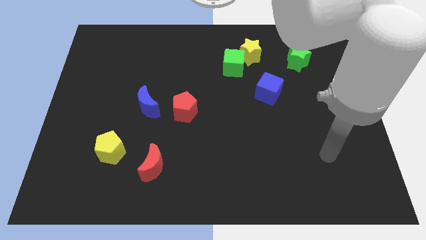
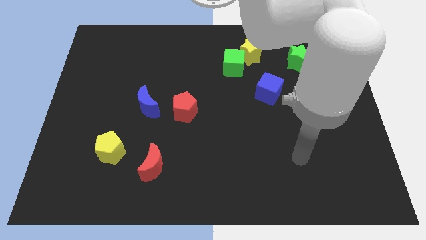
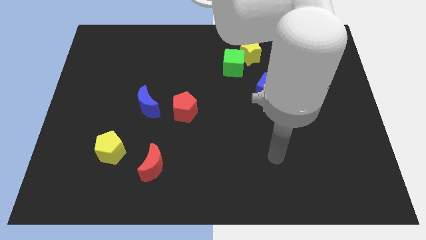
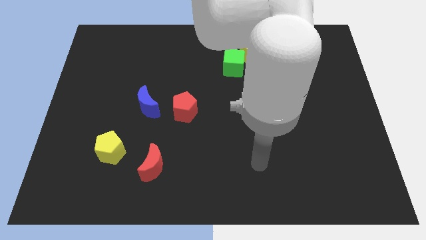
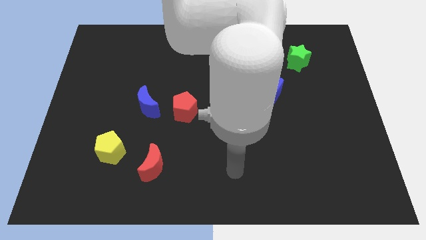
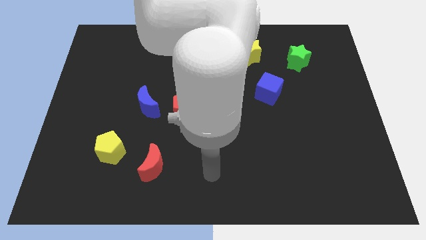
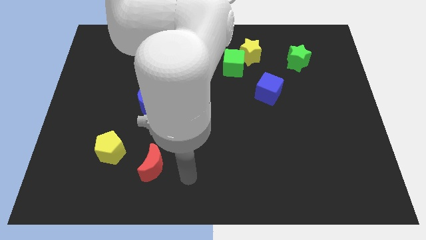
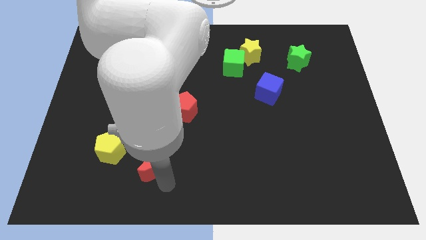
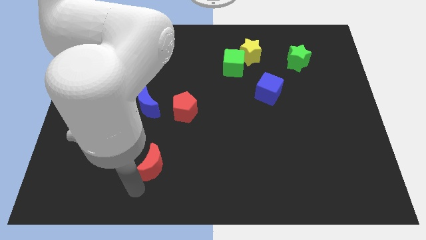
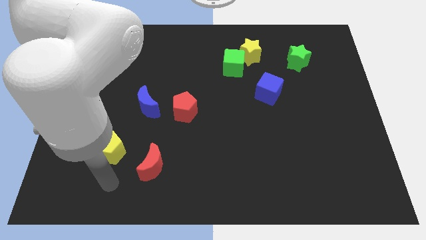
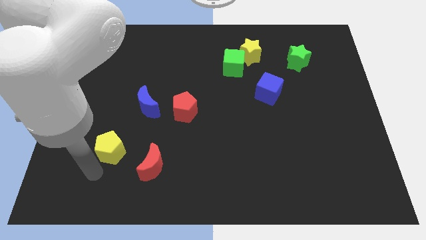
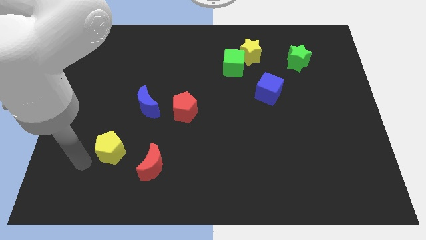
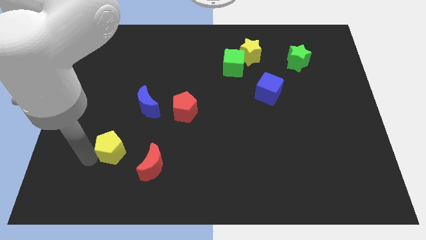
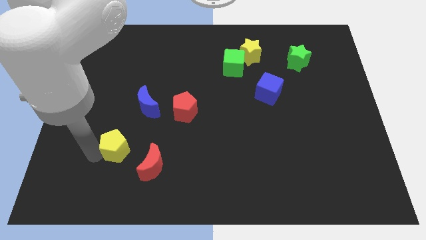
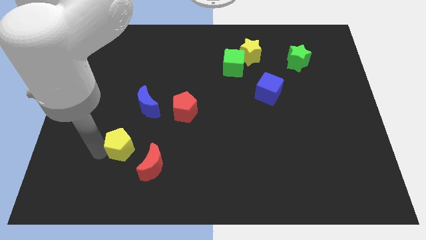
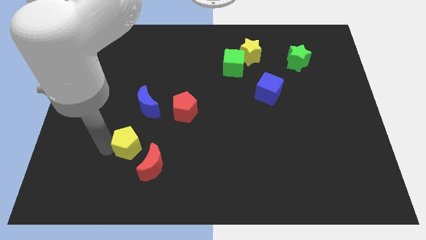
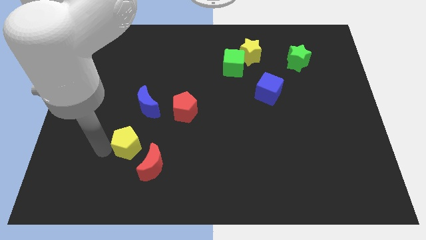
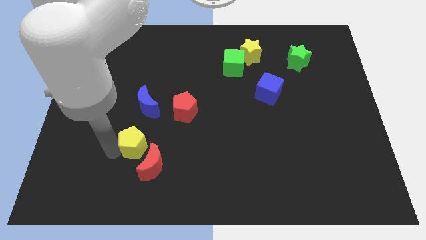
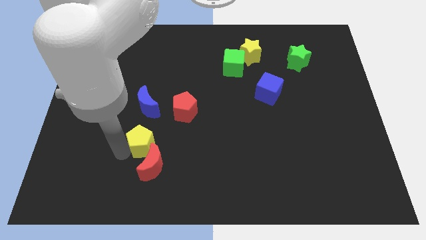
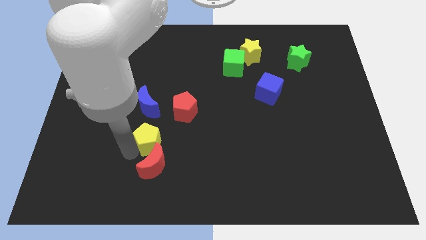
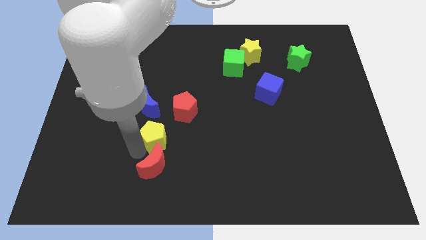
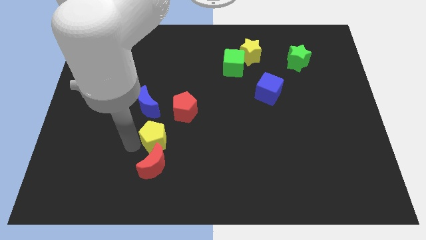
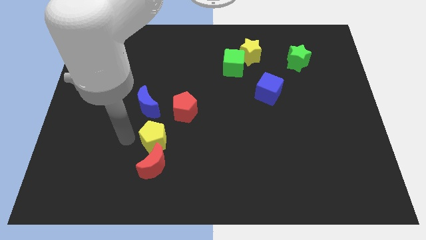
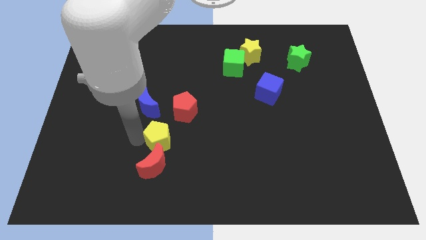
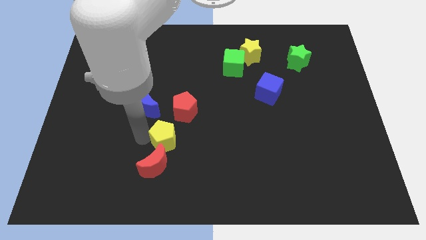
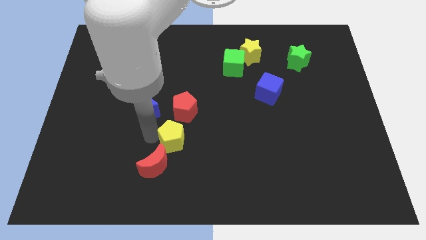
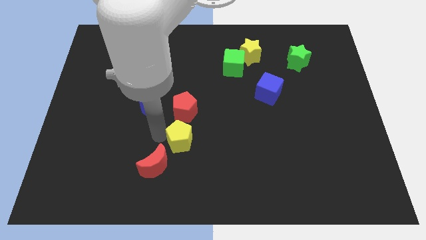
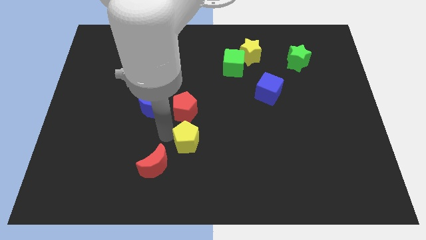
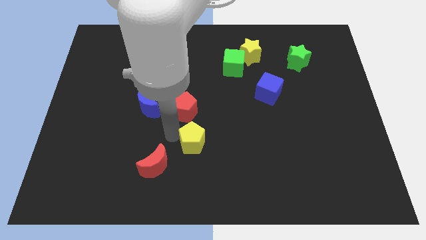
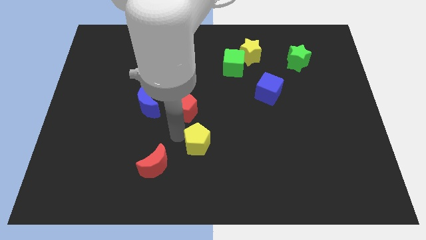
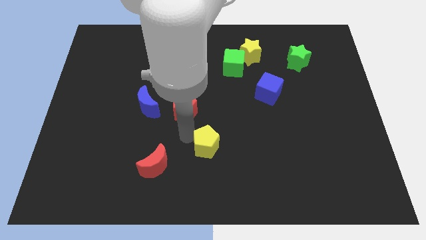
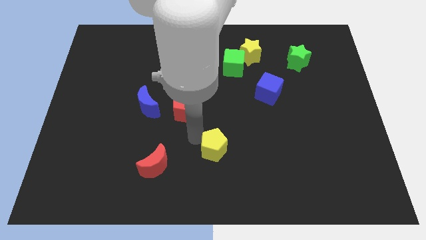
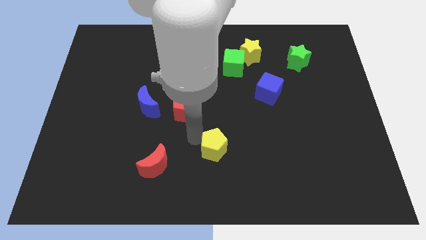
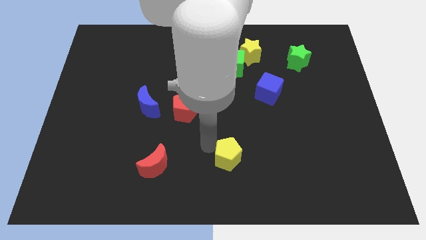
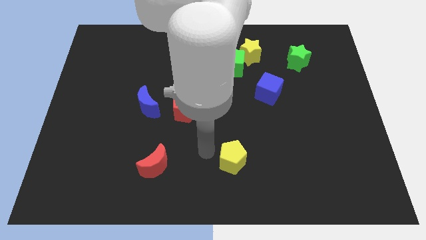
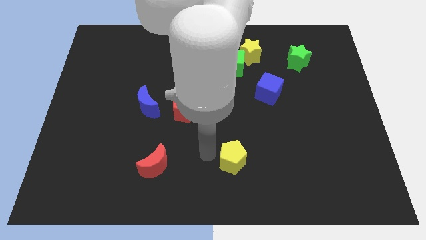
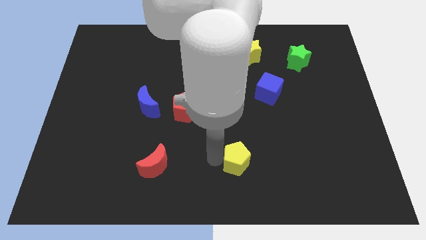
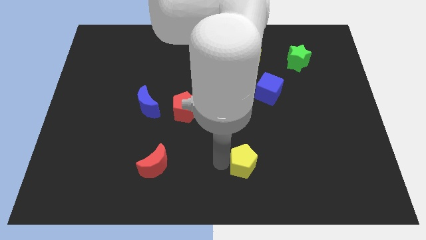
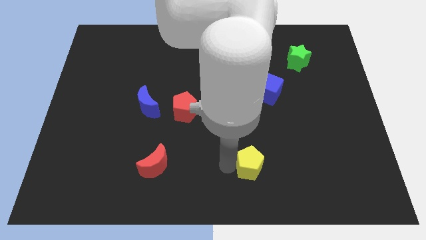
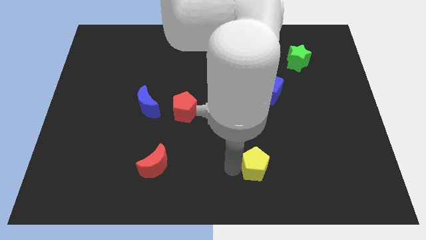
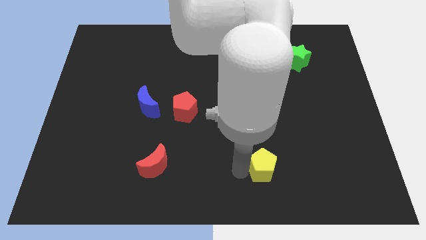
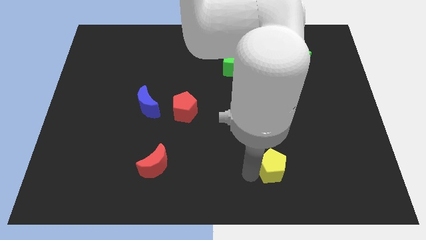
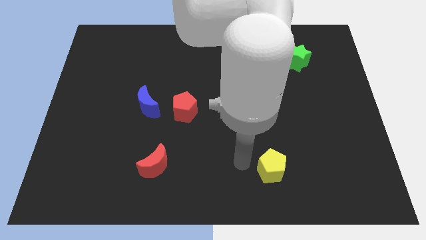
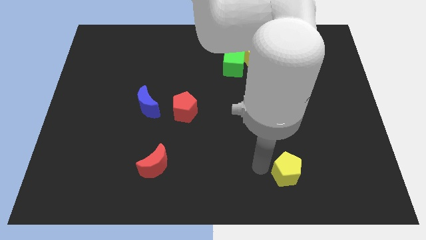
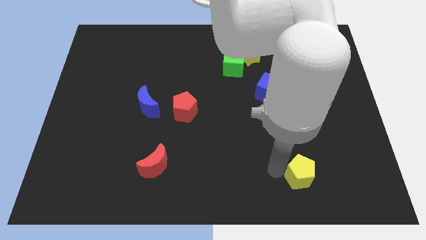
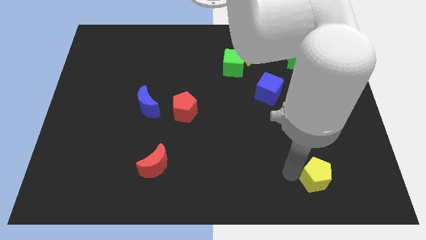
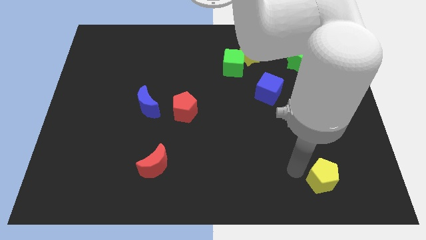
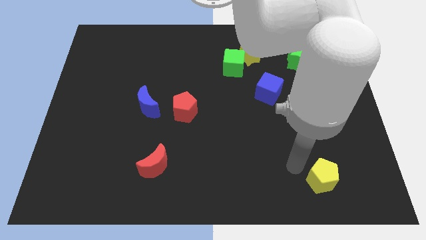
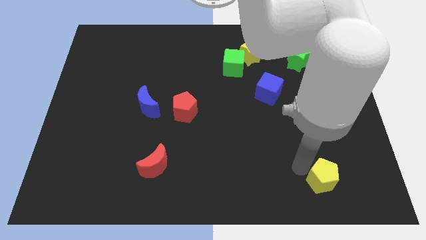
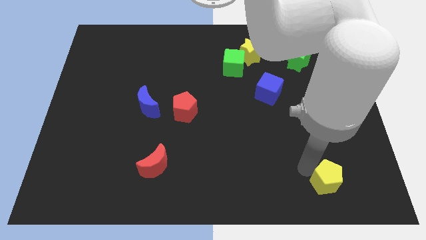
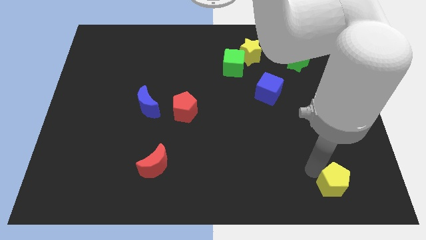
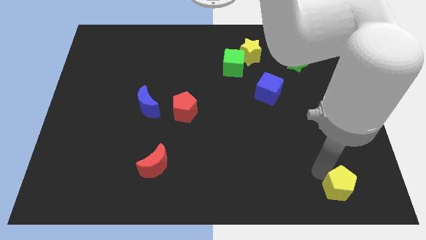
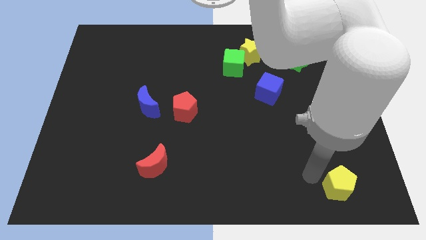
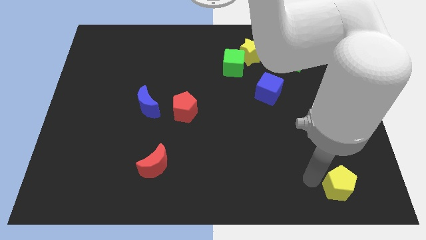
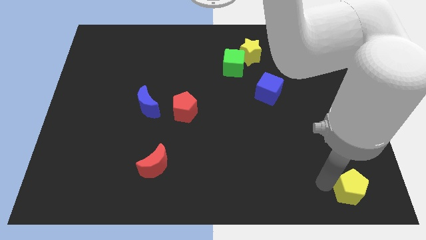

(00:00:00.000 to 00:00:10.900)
slide the yellow pentagon to the bottom right

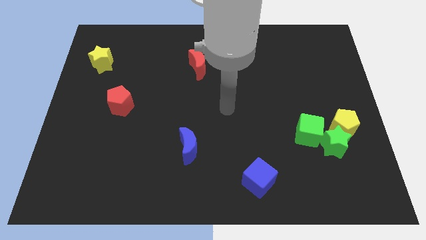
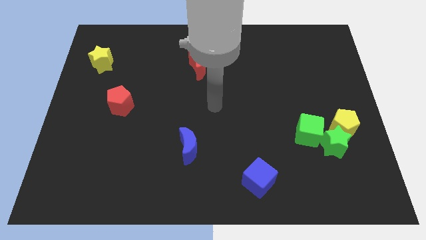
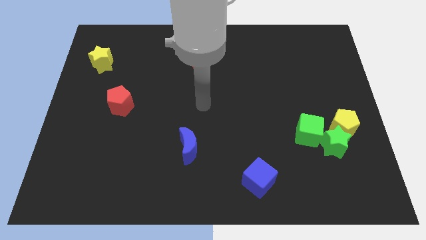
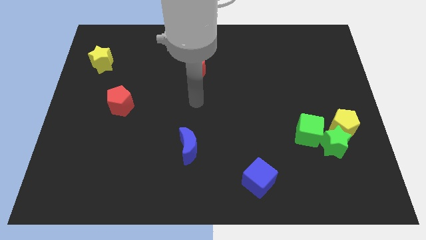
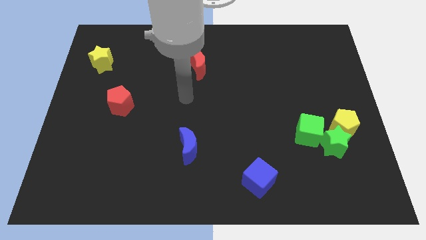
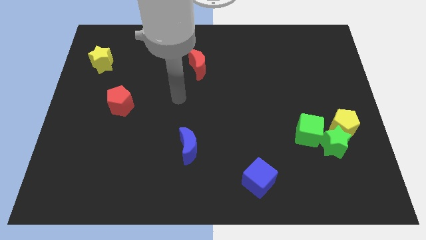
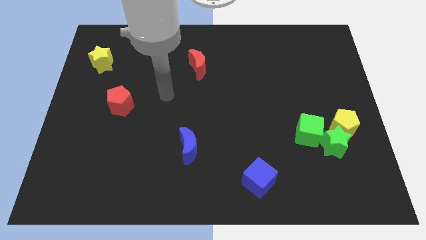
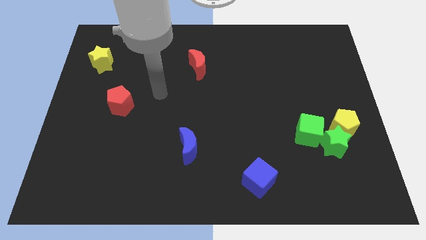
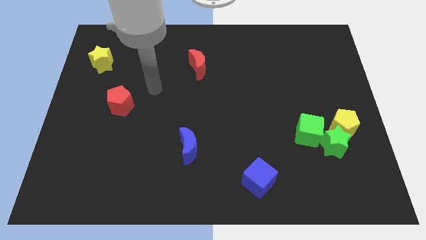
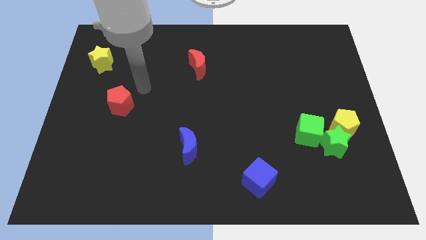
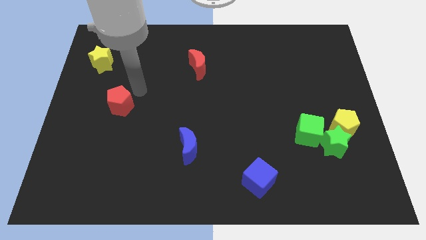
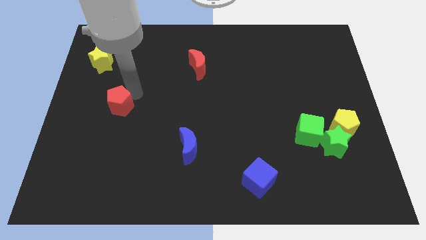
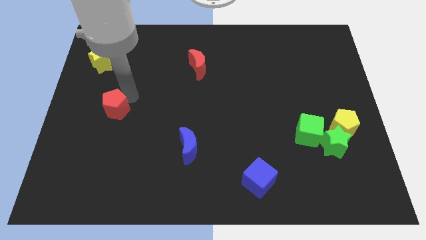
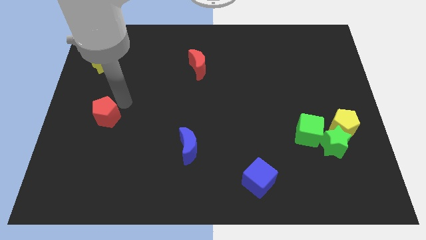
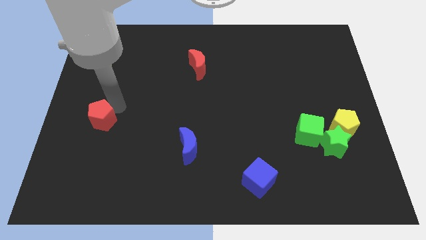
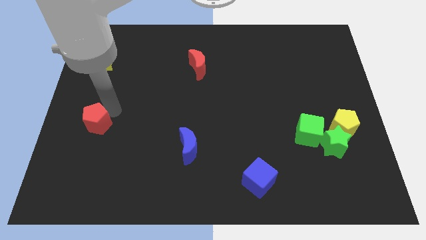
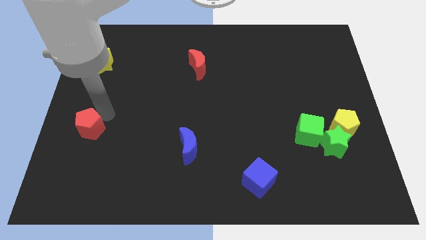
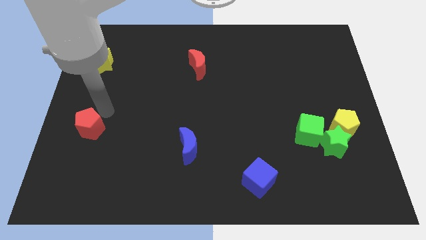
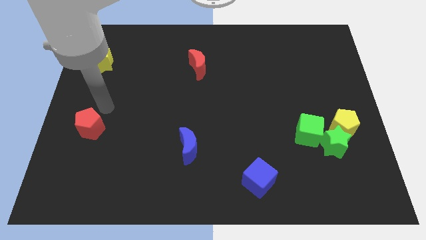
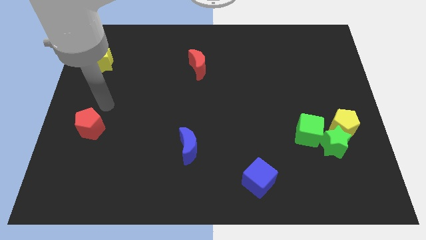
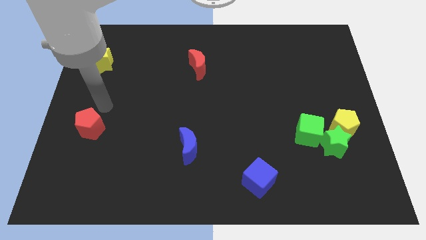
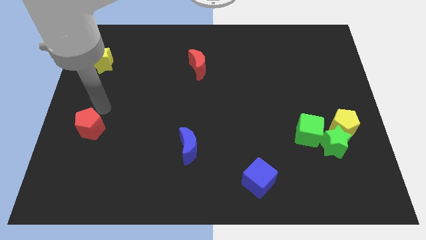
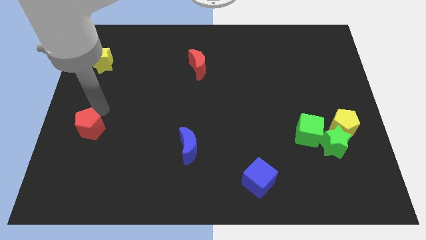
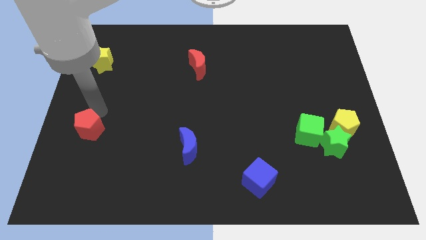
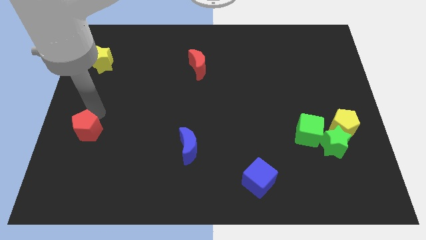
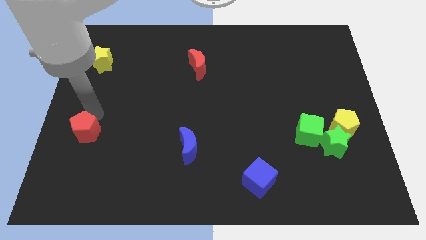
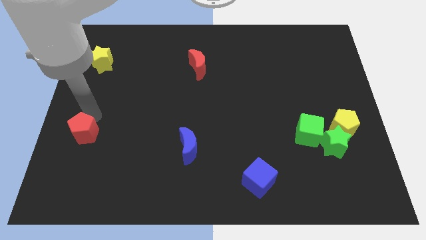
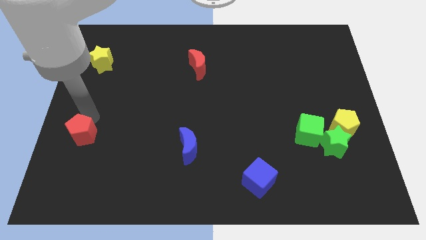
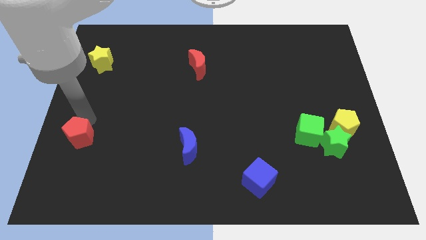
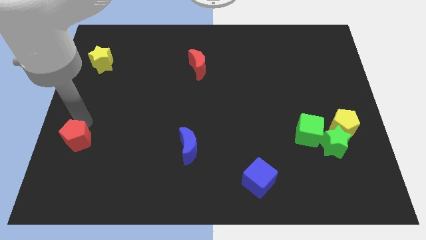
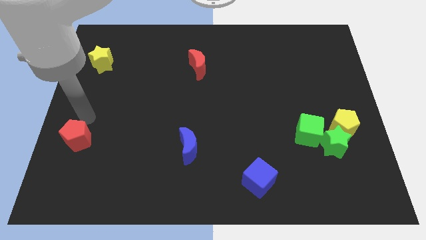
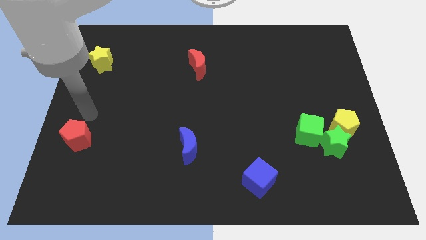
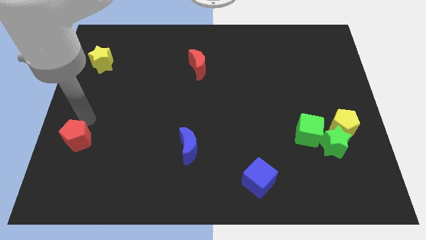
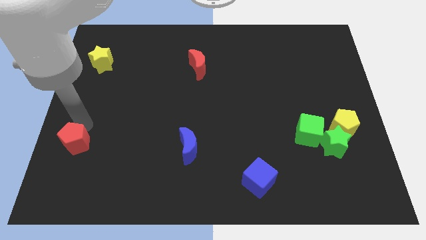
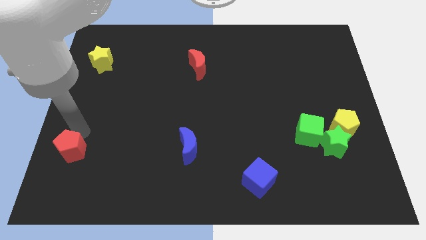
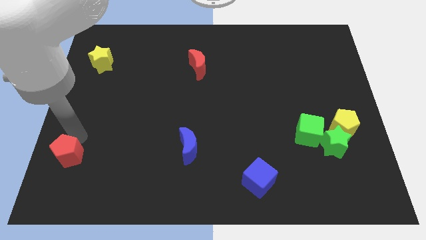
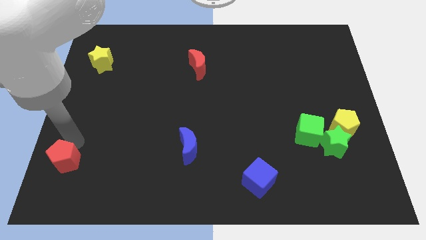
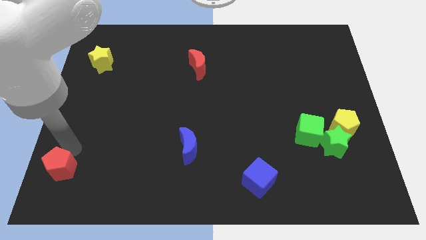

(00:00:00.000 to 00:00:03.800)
move the red pentagon to the bottom left corner
